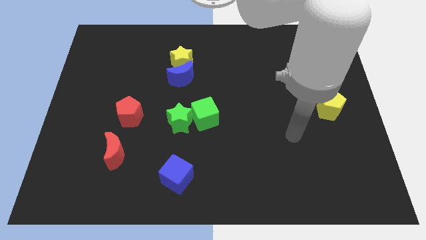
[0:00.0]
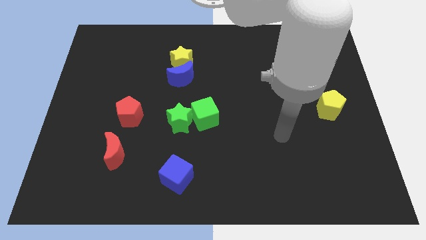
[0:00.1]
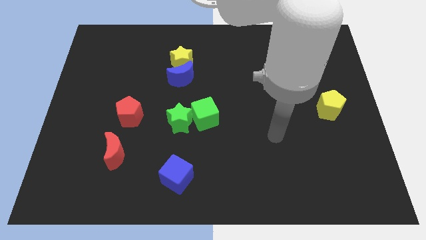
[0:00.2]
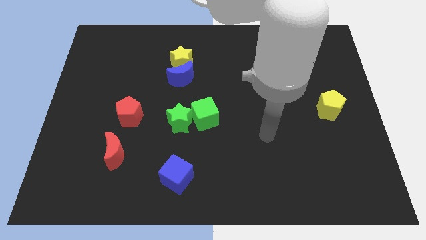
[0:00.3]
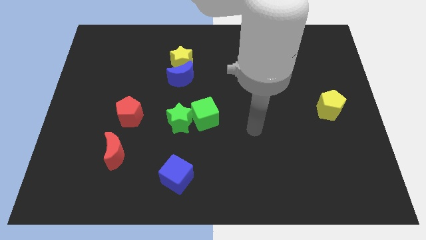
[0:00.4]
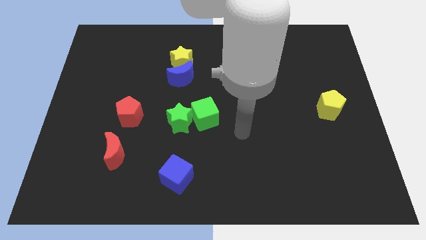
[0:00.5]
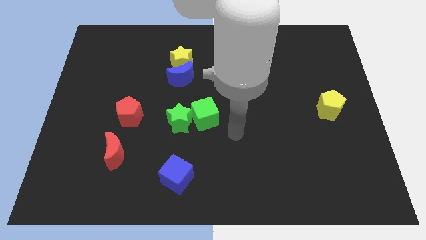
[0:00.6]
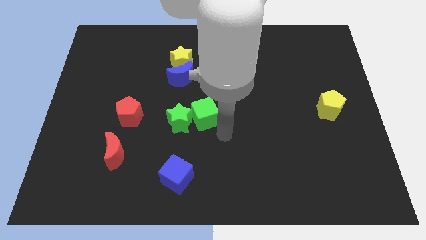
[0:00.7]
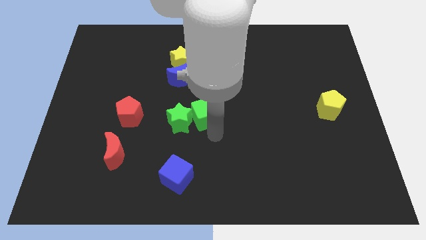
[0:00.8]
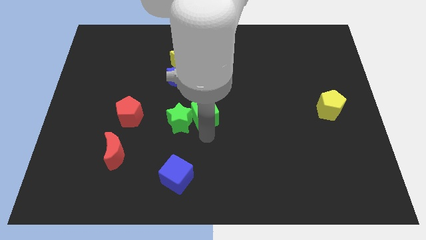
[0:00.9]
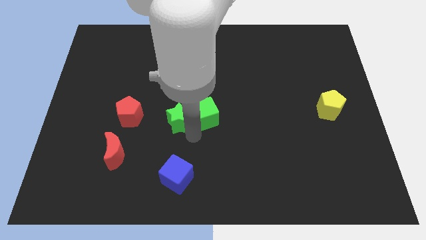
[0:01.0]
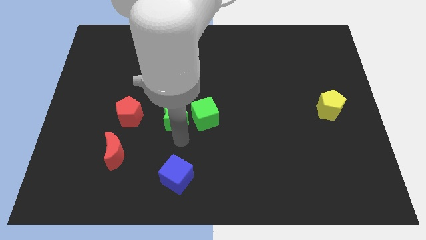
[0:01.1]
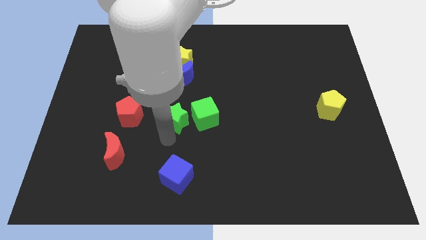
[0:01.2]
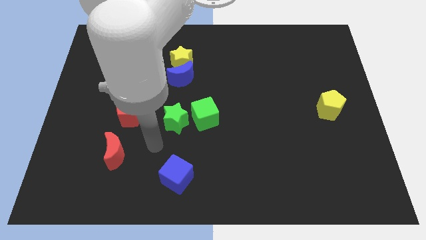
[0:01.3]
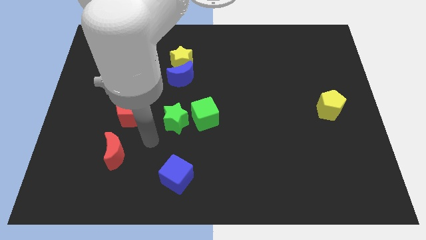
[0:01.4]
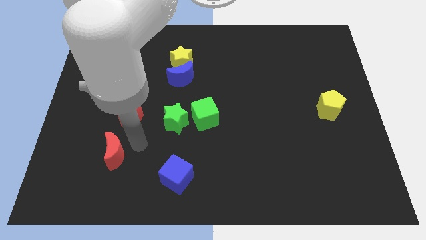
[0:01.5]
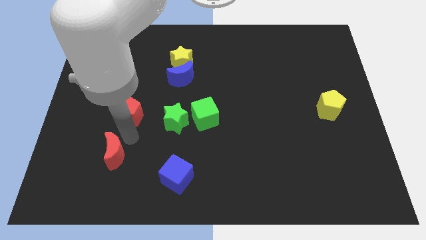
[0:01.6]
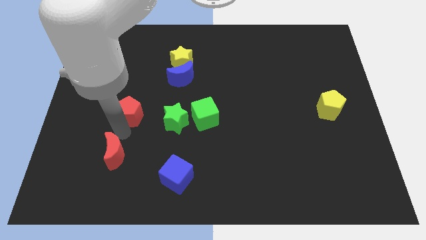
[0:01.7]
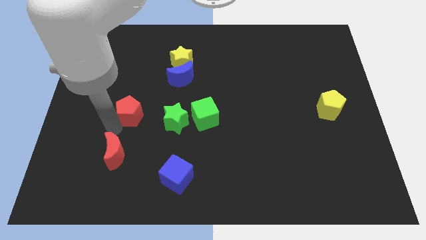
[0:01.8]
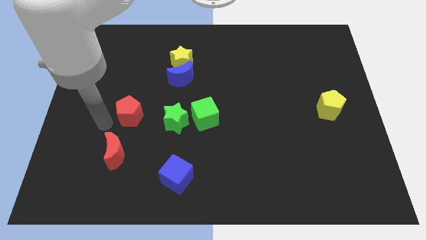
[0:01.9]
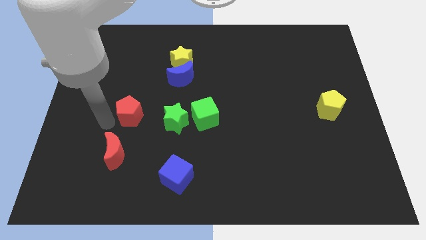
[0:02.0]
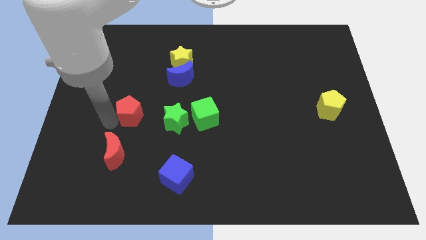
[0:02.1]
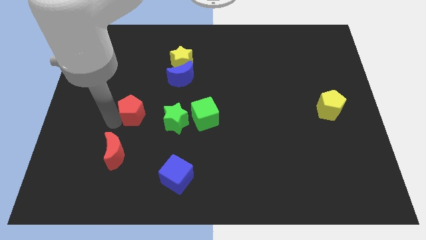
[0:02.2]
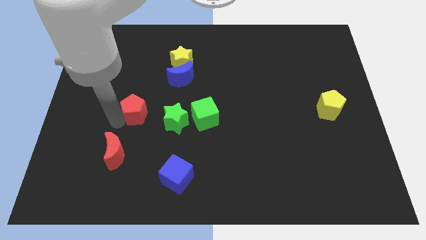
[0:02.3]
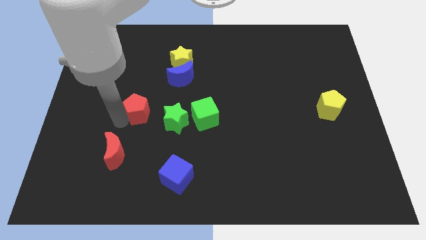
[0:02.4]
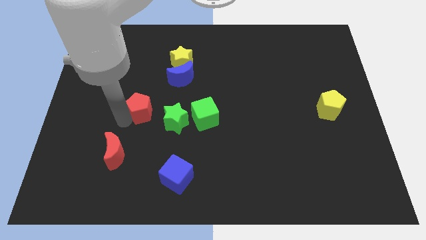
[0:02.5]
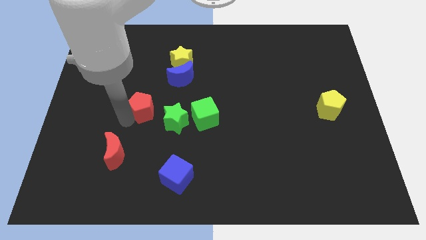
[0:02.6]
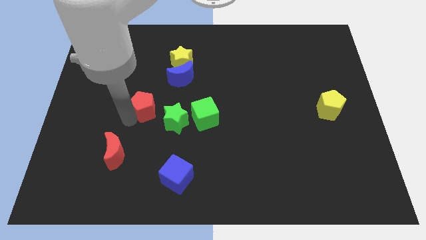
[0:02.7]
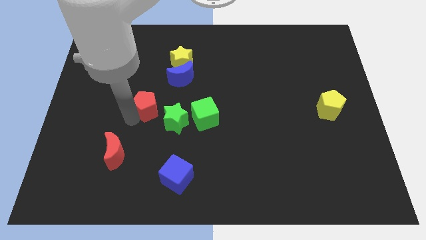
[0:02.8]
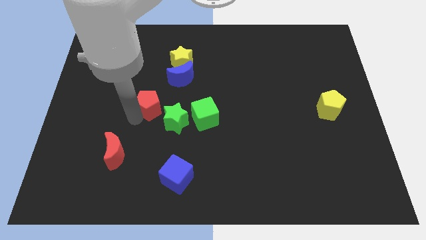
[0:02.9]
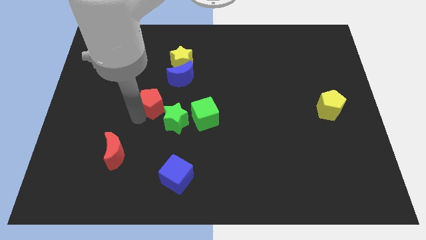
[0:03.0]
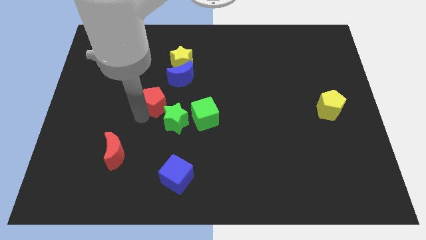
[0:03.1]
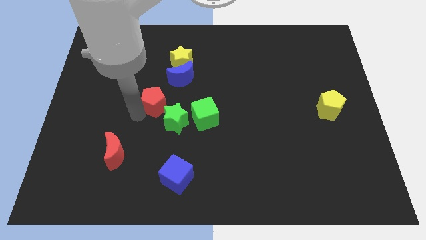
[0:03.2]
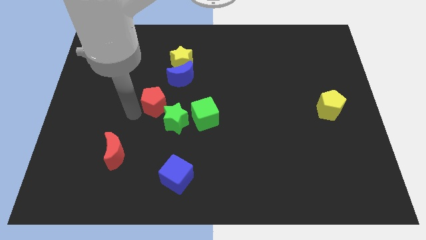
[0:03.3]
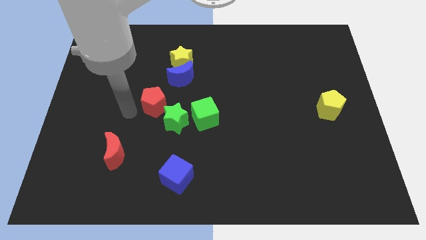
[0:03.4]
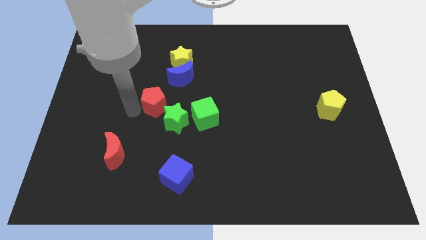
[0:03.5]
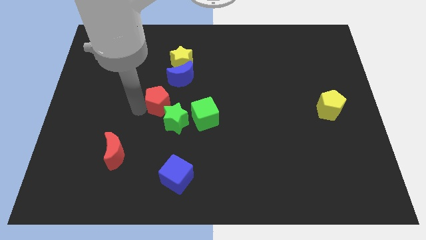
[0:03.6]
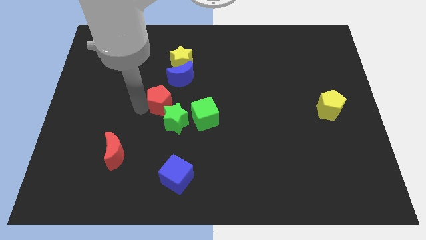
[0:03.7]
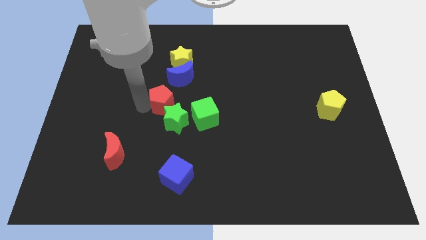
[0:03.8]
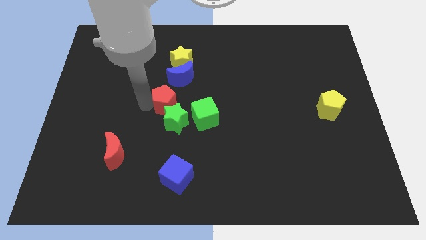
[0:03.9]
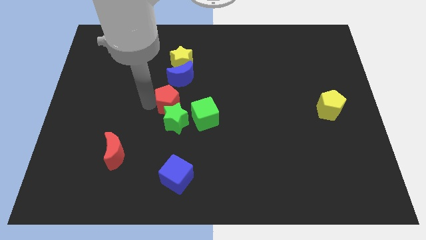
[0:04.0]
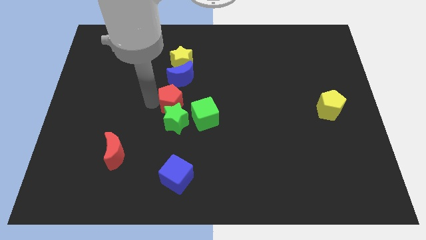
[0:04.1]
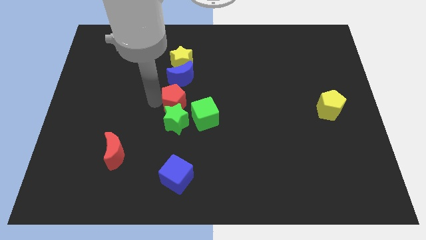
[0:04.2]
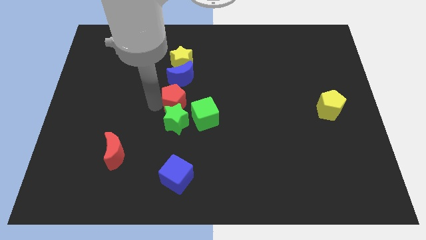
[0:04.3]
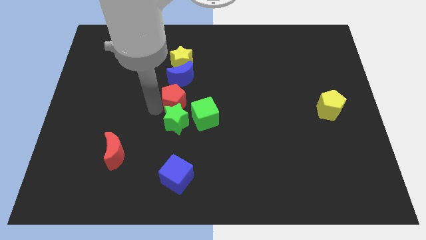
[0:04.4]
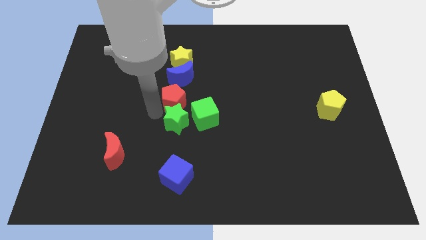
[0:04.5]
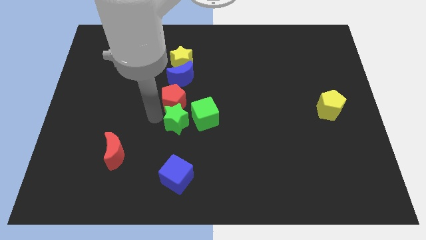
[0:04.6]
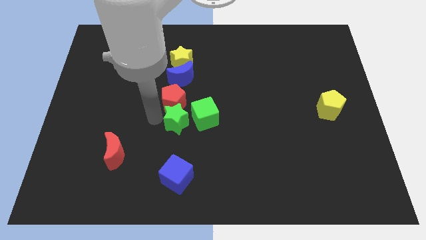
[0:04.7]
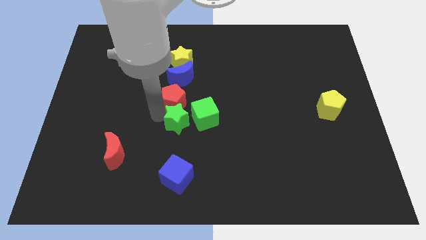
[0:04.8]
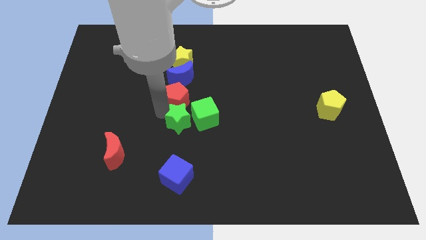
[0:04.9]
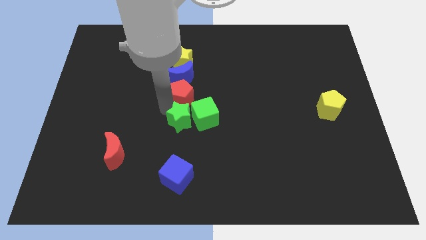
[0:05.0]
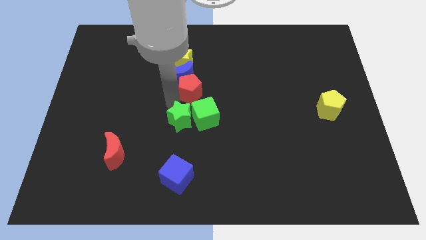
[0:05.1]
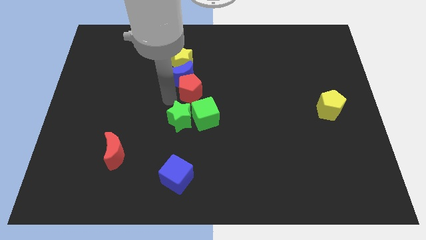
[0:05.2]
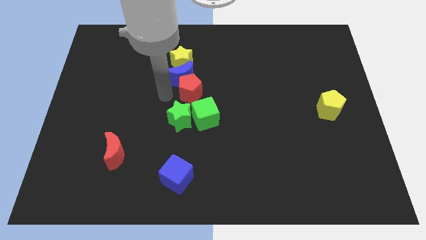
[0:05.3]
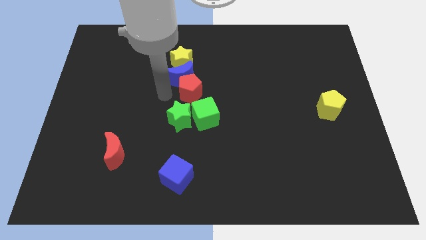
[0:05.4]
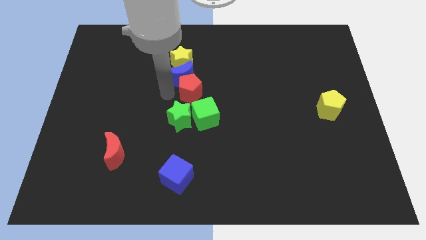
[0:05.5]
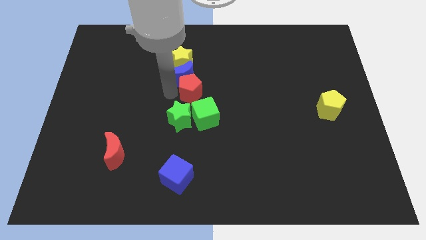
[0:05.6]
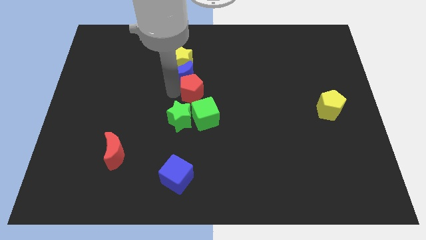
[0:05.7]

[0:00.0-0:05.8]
put the red pentagon to the bottom right of the yellow star

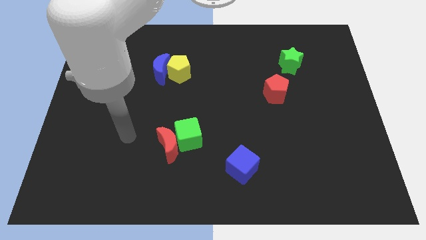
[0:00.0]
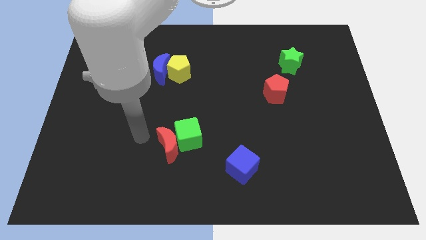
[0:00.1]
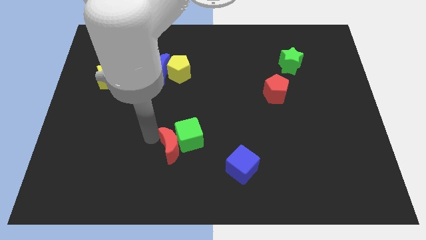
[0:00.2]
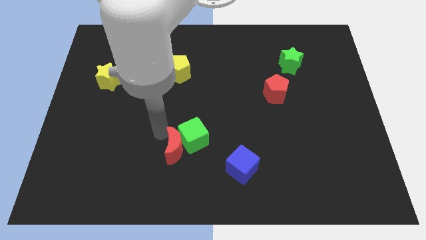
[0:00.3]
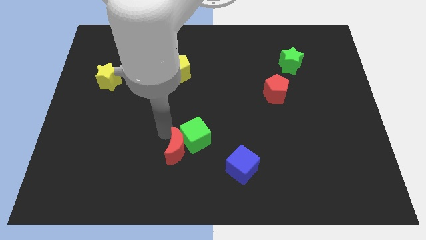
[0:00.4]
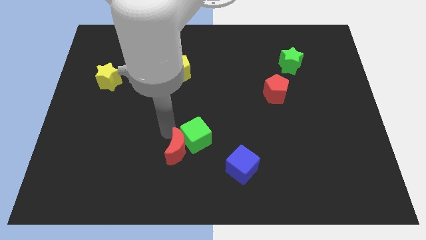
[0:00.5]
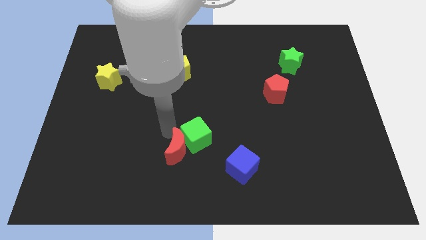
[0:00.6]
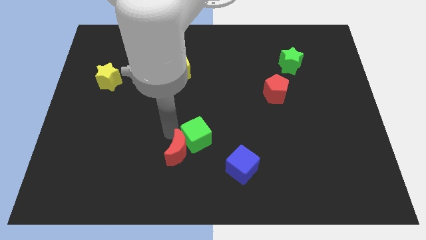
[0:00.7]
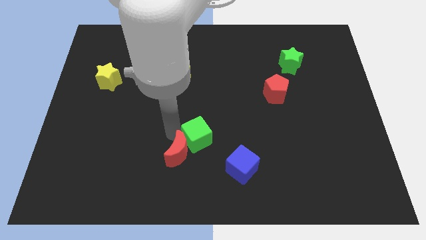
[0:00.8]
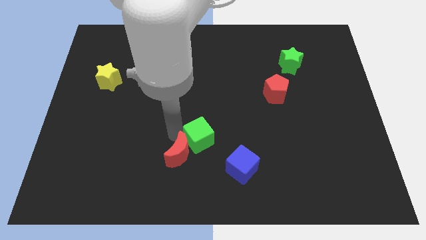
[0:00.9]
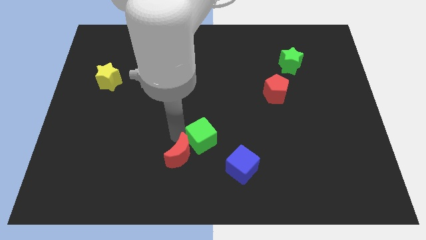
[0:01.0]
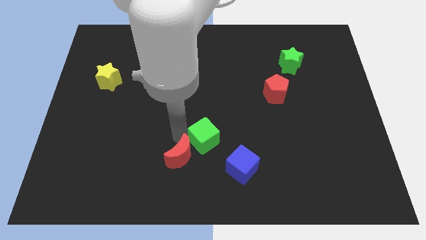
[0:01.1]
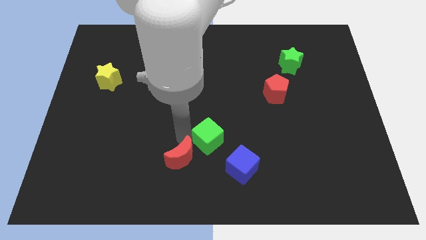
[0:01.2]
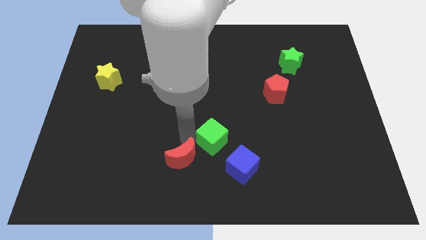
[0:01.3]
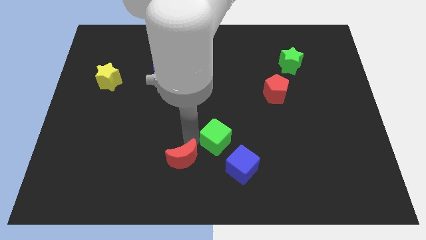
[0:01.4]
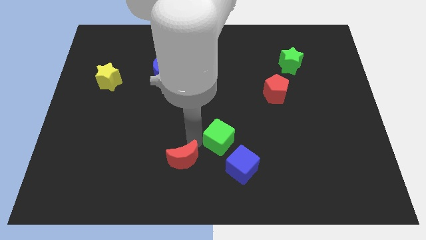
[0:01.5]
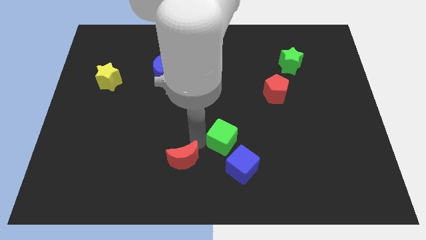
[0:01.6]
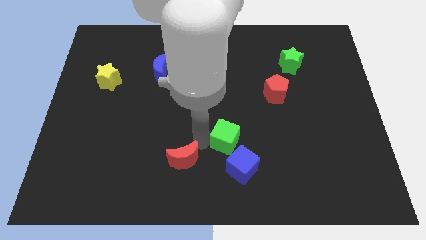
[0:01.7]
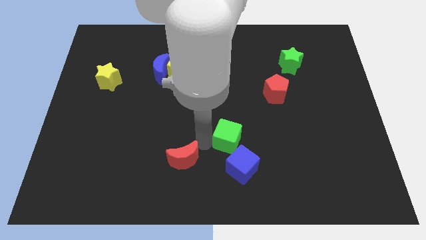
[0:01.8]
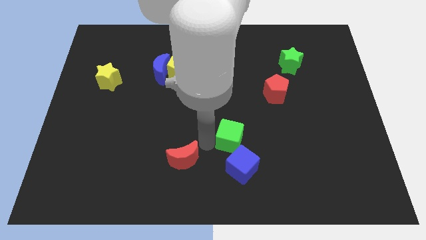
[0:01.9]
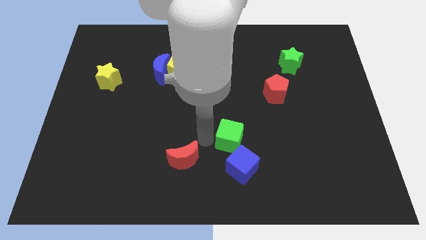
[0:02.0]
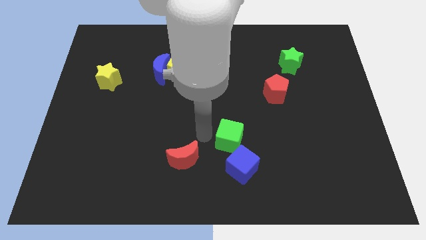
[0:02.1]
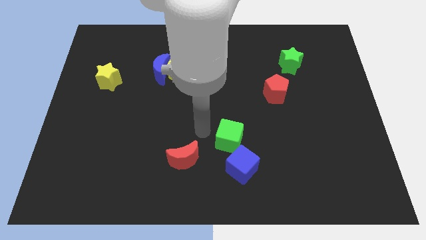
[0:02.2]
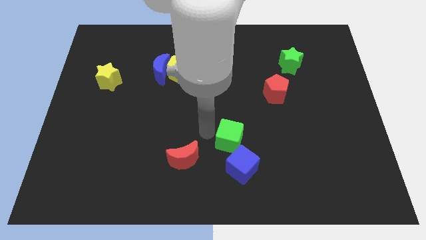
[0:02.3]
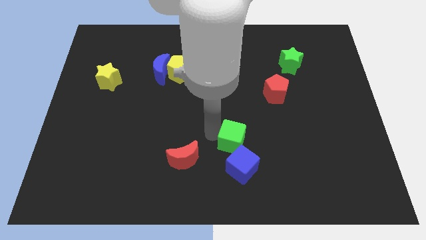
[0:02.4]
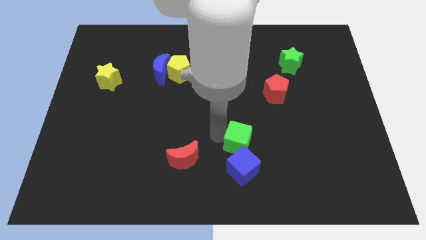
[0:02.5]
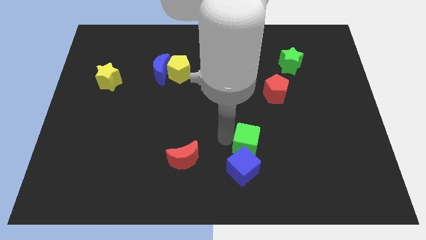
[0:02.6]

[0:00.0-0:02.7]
put the green cube to the top right side of the blue cube
